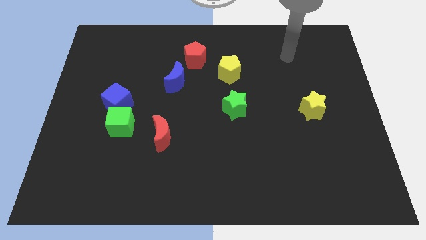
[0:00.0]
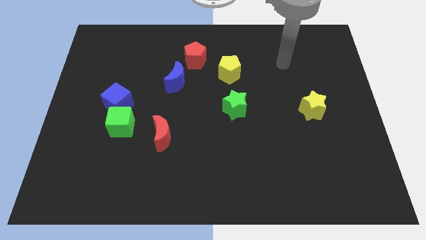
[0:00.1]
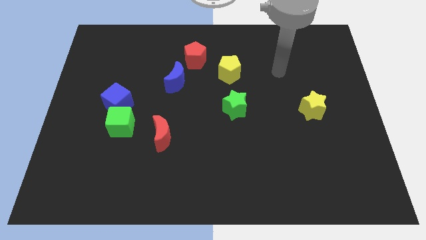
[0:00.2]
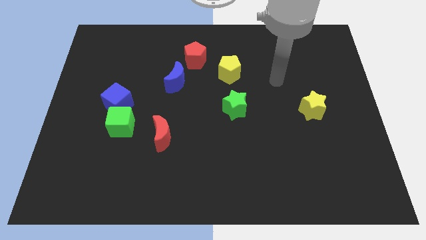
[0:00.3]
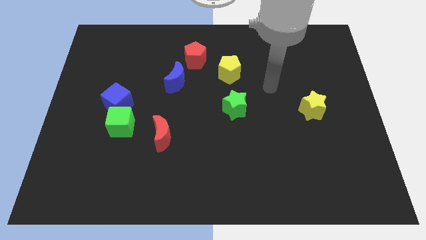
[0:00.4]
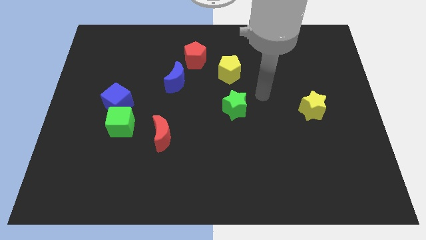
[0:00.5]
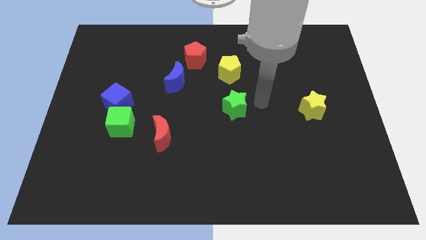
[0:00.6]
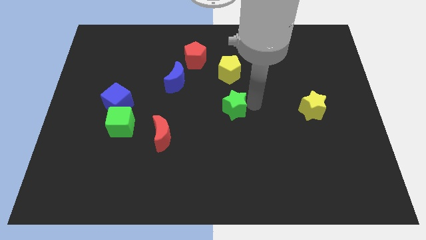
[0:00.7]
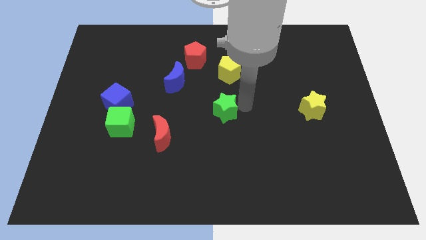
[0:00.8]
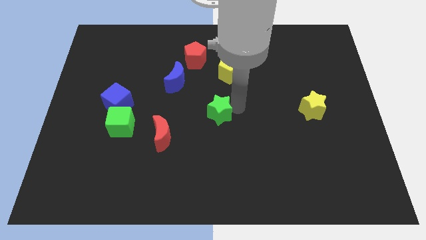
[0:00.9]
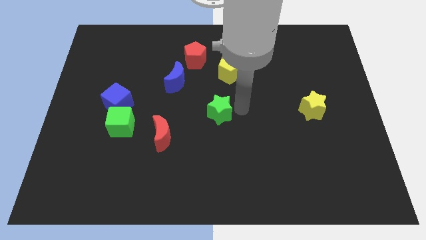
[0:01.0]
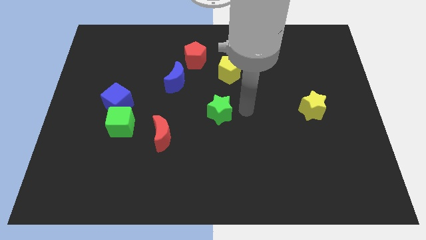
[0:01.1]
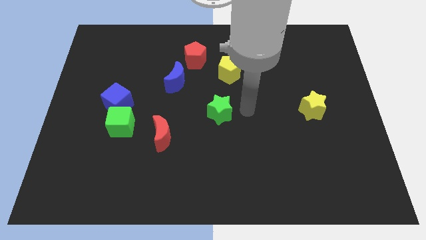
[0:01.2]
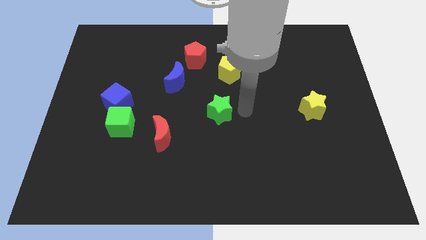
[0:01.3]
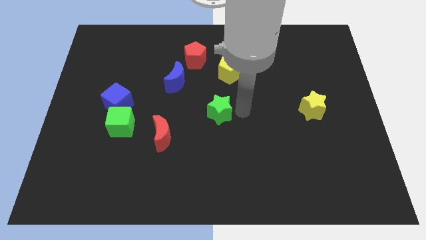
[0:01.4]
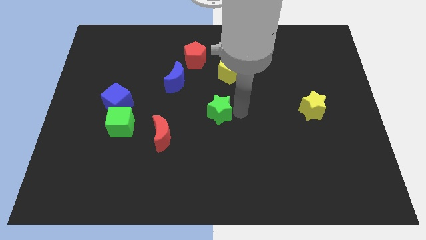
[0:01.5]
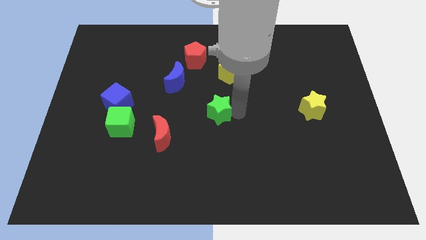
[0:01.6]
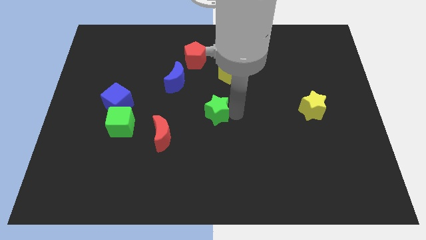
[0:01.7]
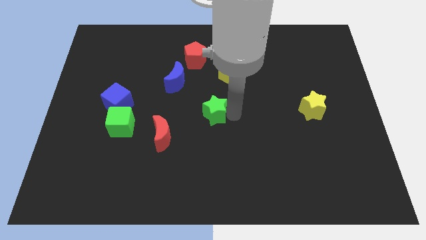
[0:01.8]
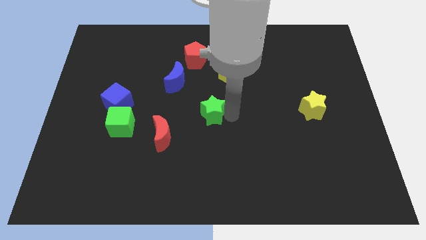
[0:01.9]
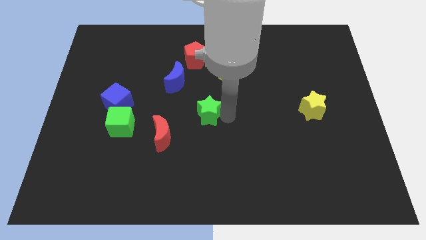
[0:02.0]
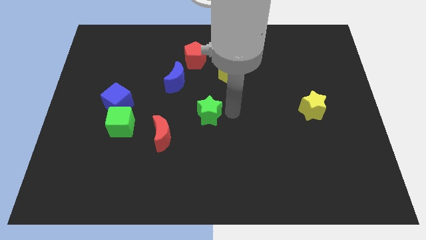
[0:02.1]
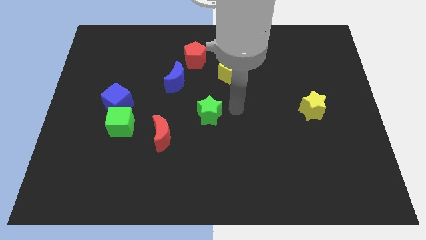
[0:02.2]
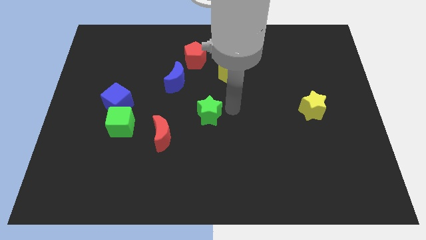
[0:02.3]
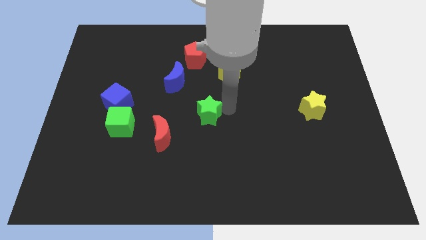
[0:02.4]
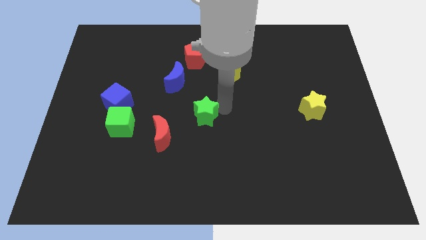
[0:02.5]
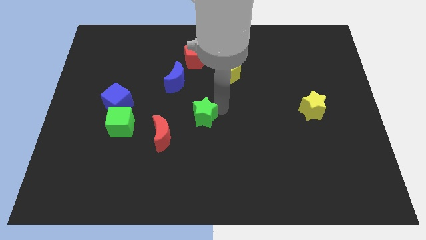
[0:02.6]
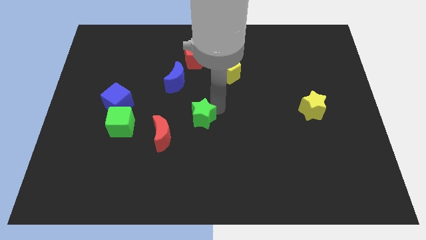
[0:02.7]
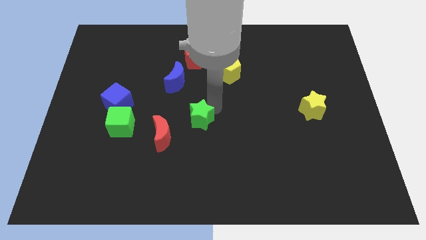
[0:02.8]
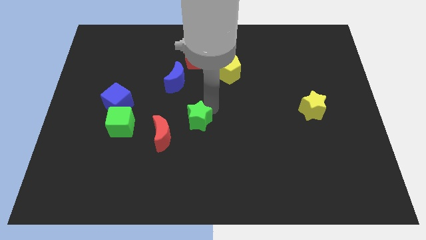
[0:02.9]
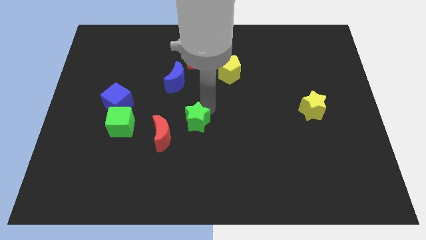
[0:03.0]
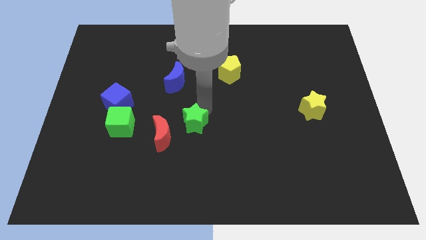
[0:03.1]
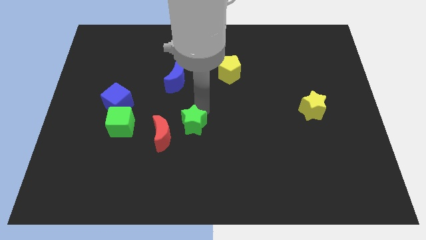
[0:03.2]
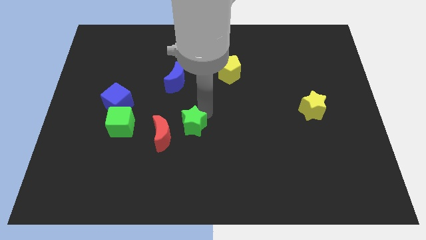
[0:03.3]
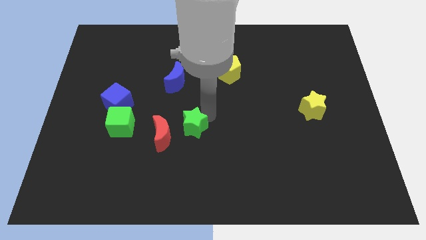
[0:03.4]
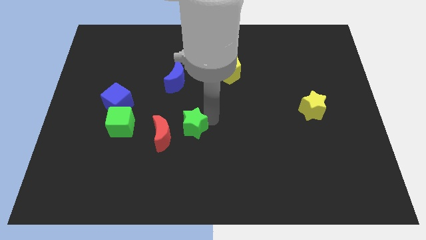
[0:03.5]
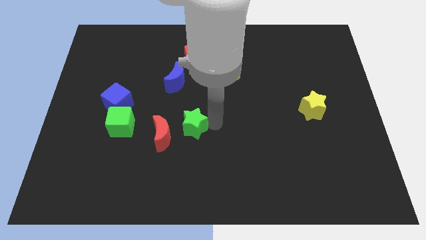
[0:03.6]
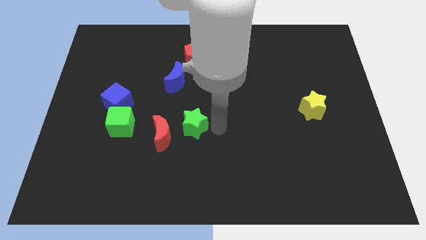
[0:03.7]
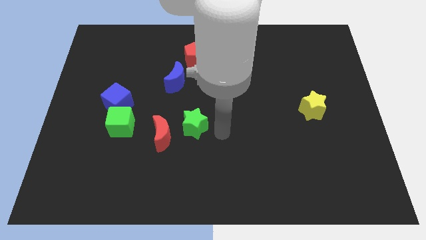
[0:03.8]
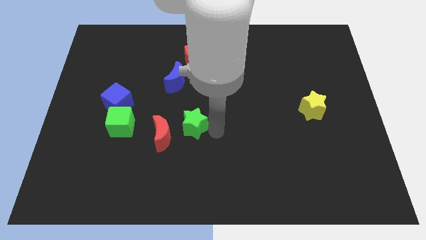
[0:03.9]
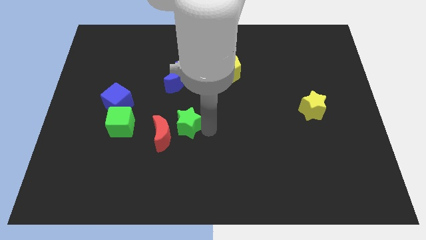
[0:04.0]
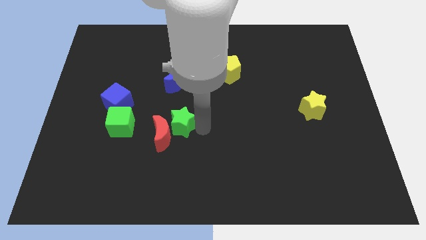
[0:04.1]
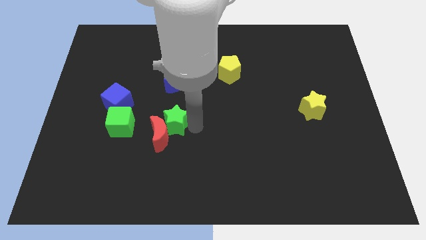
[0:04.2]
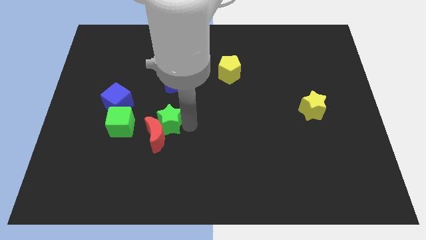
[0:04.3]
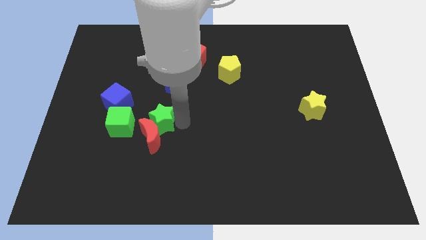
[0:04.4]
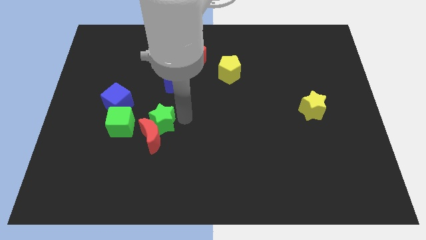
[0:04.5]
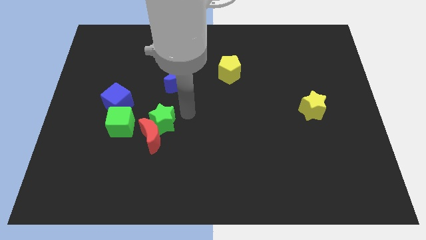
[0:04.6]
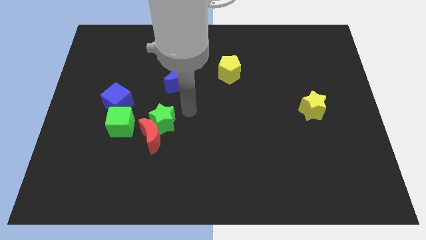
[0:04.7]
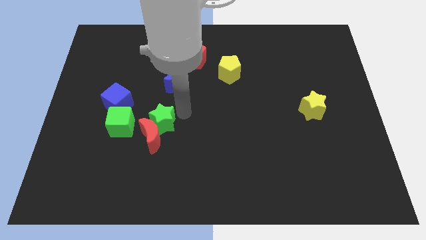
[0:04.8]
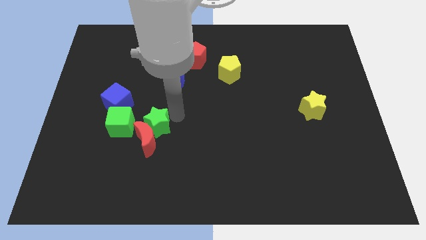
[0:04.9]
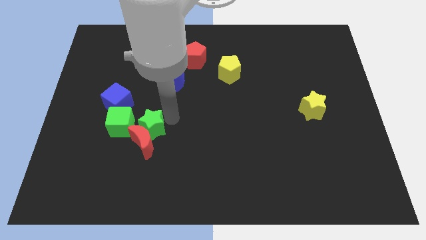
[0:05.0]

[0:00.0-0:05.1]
move the green star to the bottom right side of the green cube

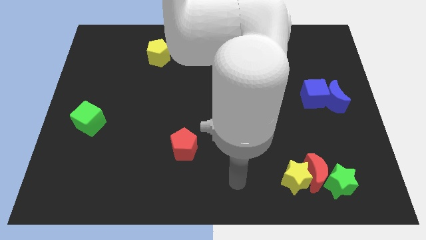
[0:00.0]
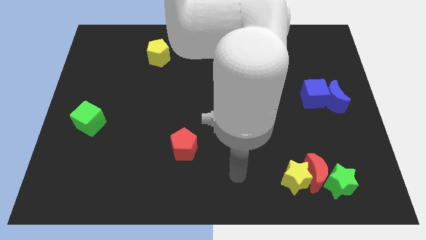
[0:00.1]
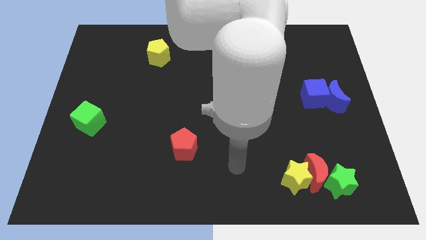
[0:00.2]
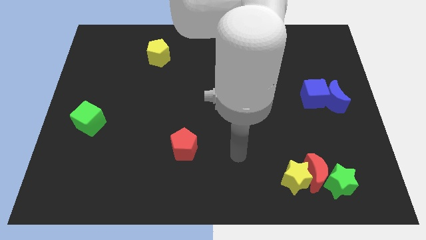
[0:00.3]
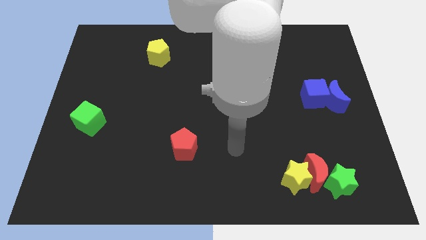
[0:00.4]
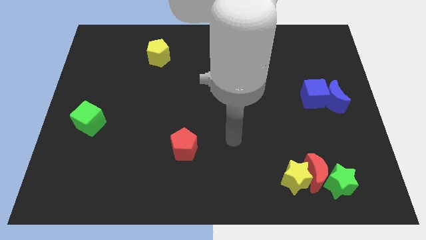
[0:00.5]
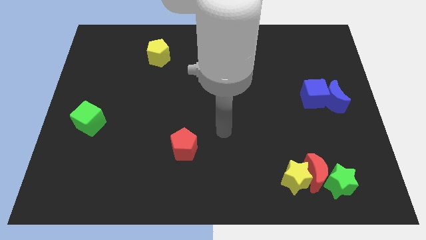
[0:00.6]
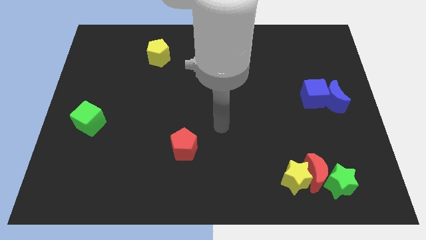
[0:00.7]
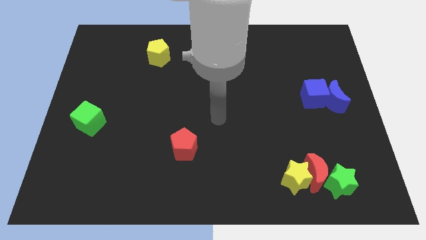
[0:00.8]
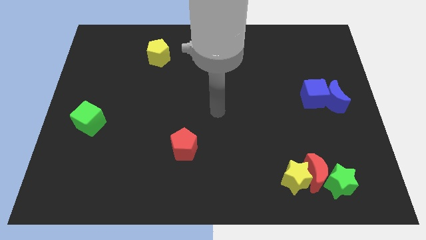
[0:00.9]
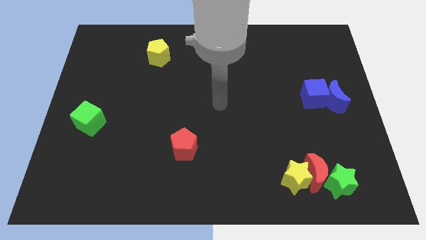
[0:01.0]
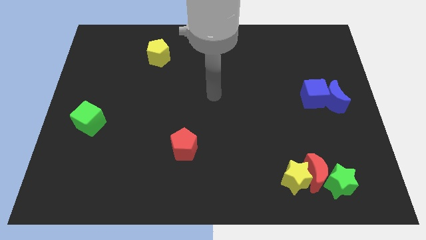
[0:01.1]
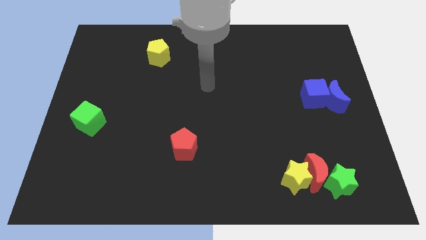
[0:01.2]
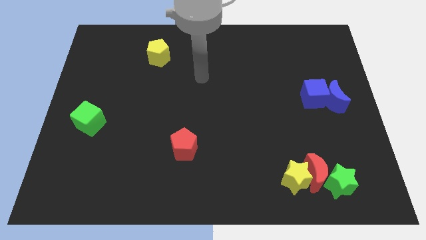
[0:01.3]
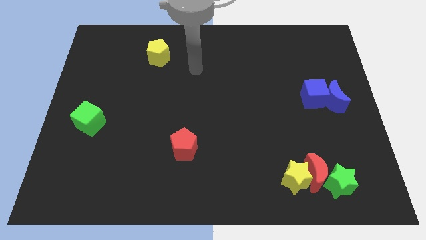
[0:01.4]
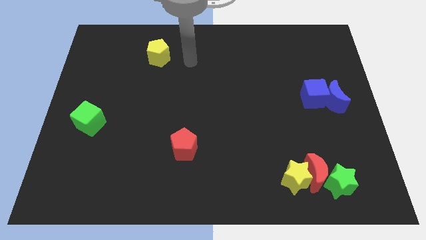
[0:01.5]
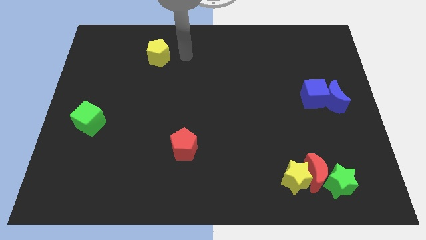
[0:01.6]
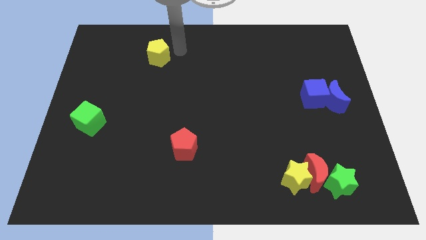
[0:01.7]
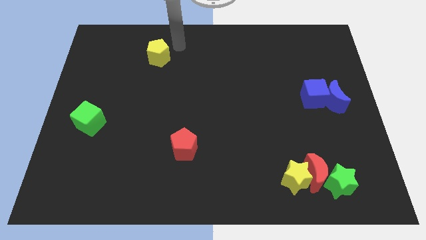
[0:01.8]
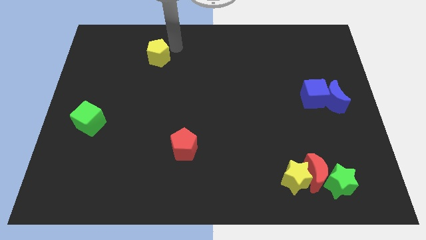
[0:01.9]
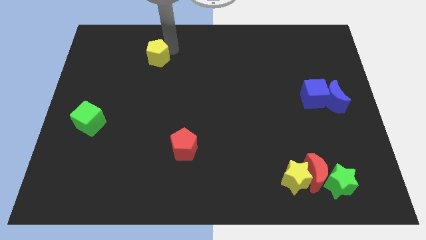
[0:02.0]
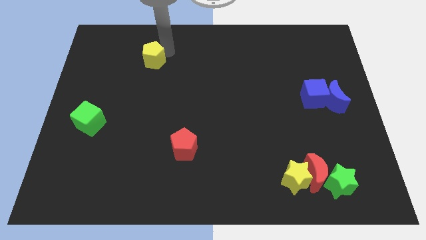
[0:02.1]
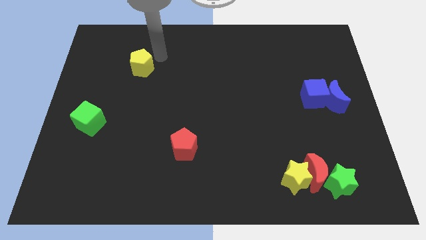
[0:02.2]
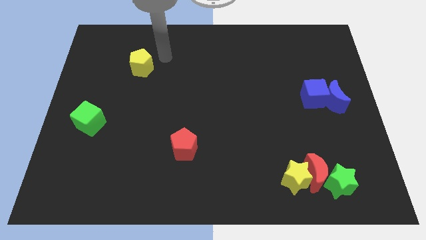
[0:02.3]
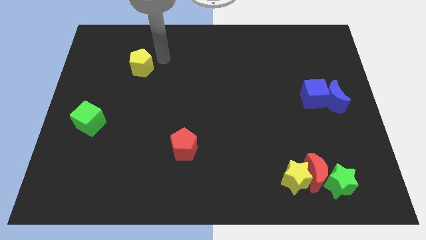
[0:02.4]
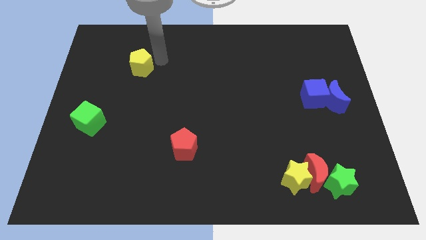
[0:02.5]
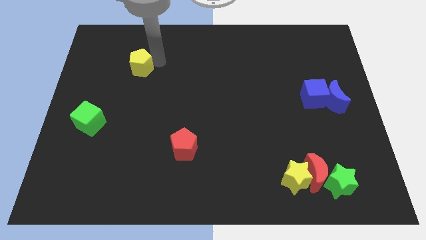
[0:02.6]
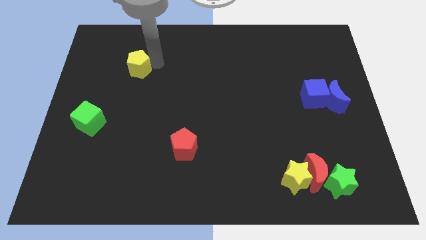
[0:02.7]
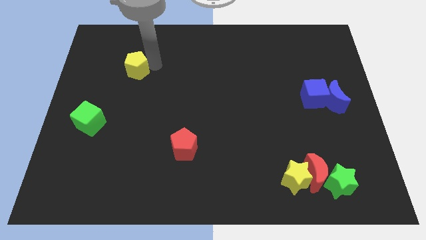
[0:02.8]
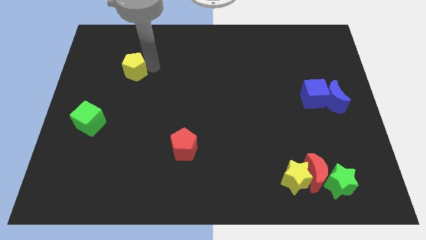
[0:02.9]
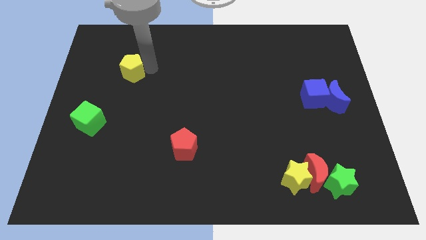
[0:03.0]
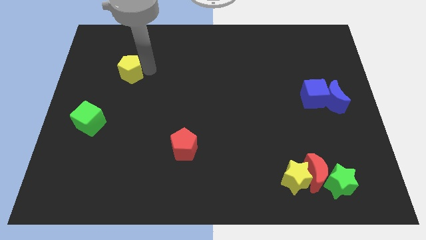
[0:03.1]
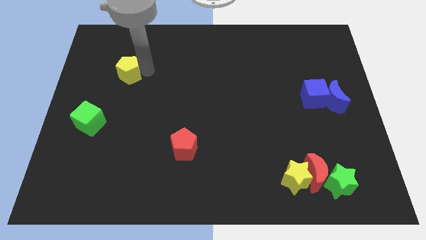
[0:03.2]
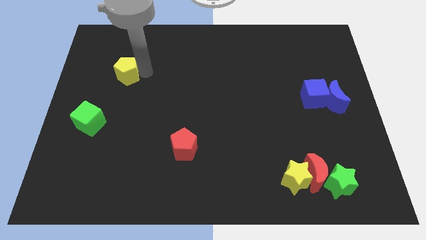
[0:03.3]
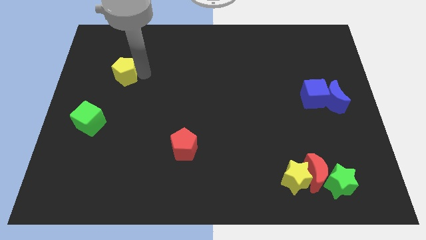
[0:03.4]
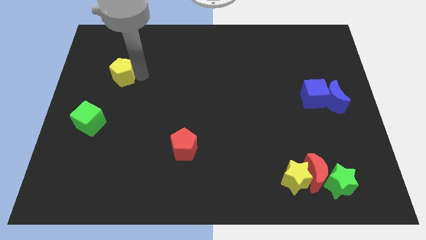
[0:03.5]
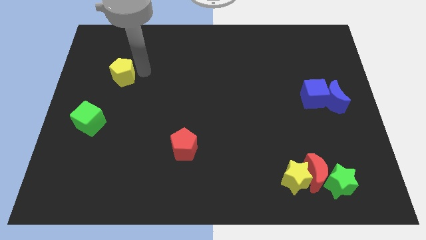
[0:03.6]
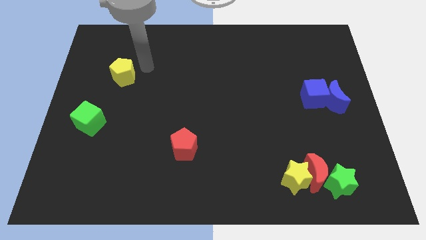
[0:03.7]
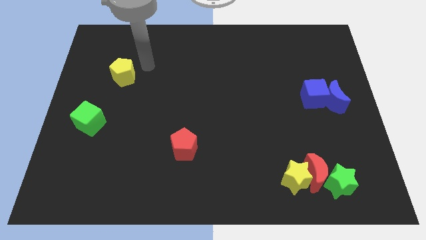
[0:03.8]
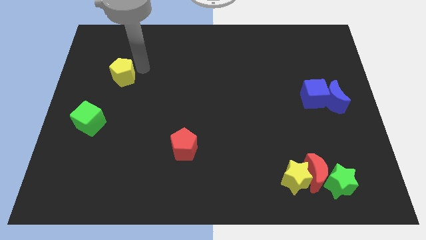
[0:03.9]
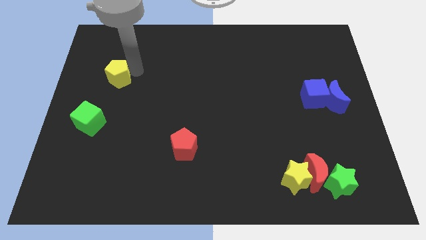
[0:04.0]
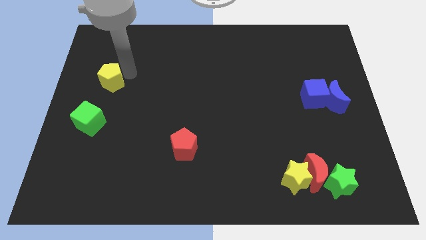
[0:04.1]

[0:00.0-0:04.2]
move the yellow pentagon to the top of the green cube
